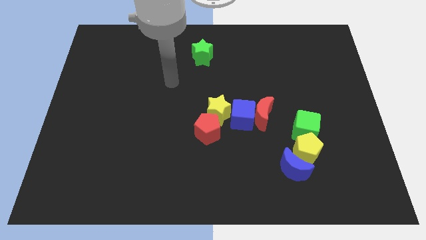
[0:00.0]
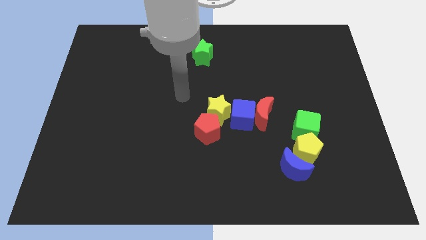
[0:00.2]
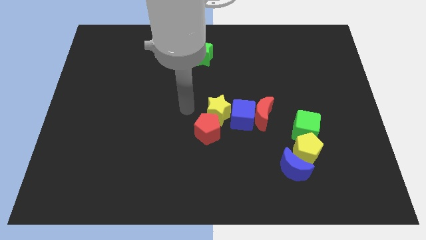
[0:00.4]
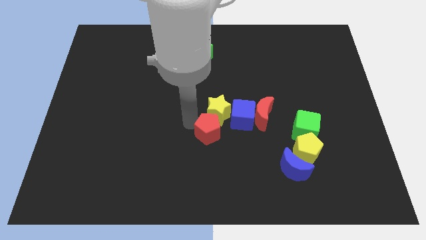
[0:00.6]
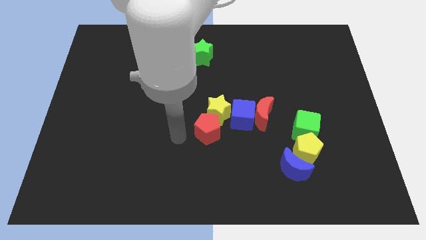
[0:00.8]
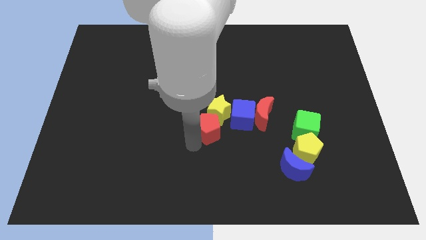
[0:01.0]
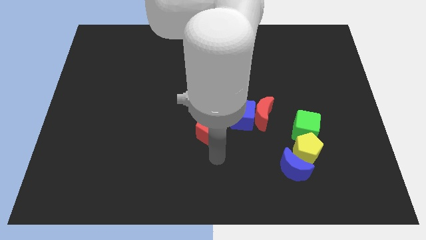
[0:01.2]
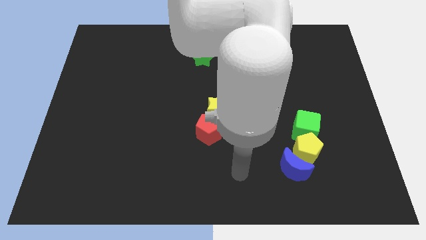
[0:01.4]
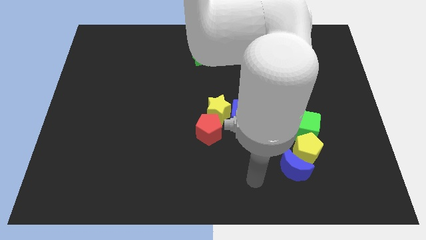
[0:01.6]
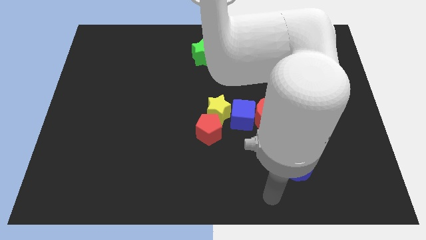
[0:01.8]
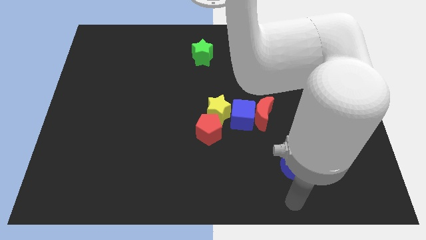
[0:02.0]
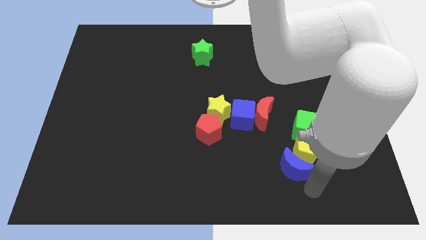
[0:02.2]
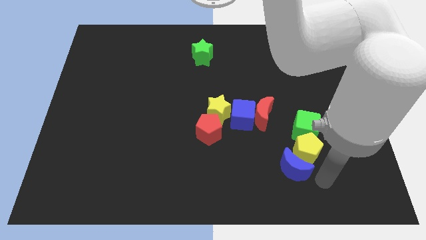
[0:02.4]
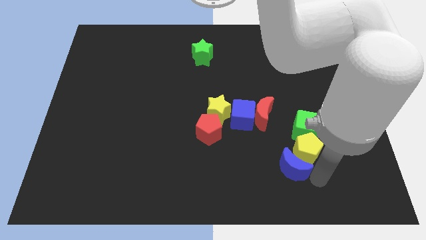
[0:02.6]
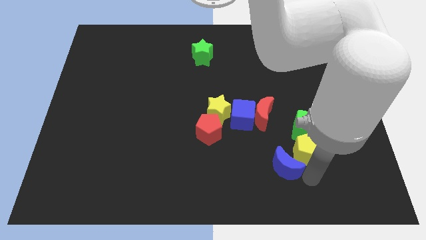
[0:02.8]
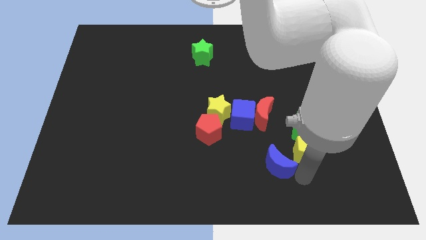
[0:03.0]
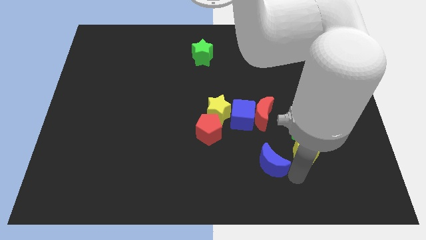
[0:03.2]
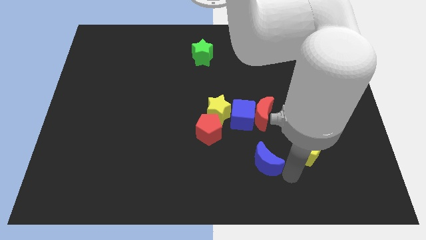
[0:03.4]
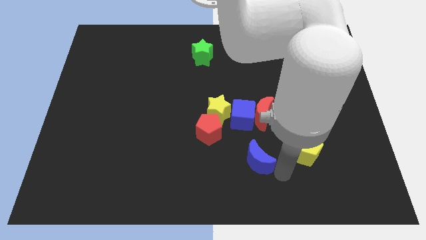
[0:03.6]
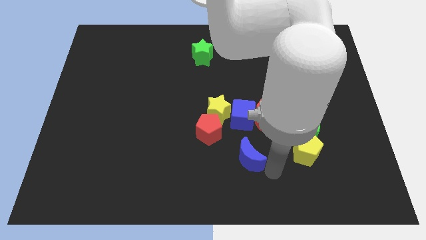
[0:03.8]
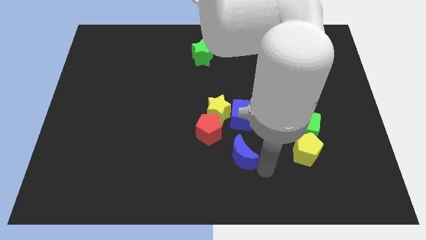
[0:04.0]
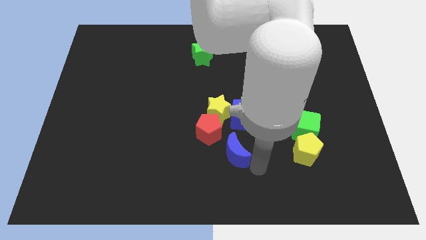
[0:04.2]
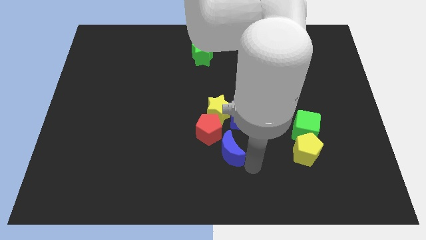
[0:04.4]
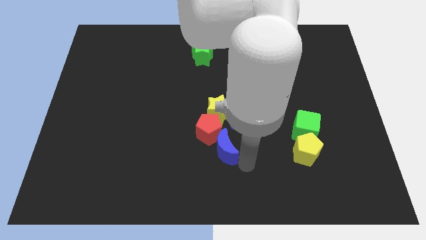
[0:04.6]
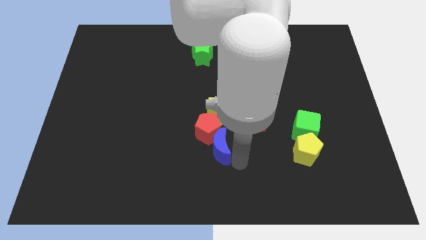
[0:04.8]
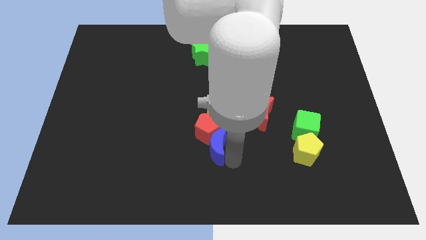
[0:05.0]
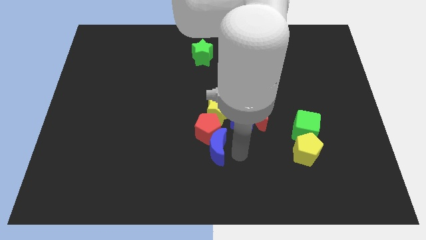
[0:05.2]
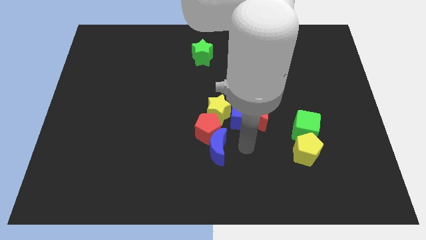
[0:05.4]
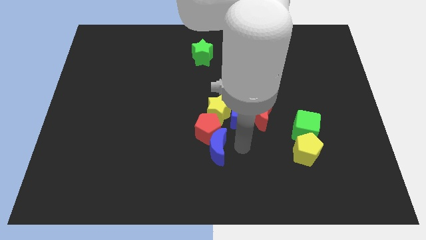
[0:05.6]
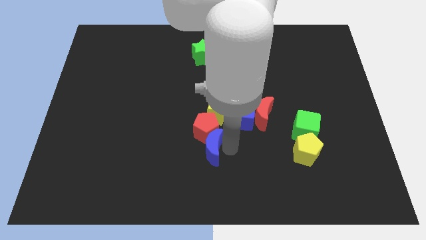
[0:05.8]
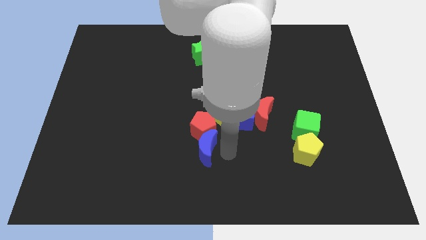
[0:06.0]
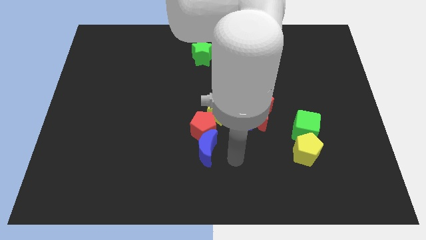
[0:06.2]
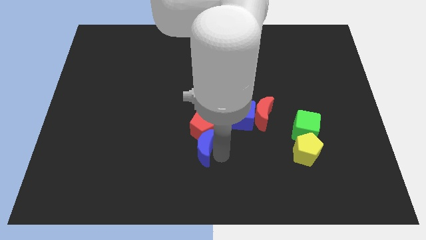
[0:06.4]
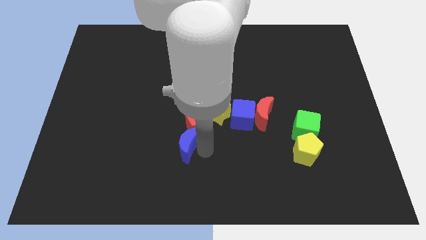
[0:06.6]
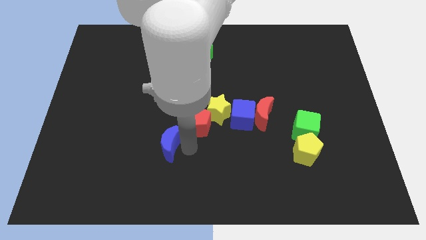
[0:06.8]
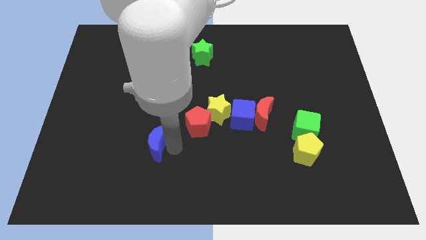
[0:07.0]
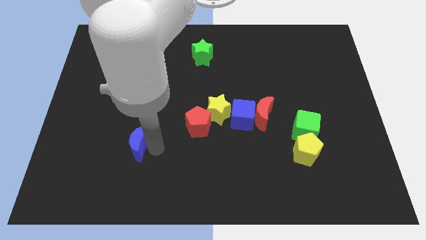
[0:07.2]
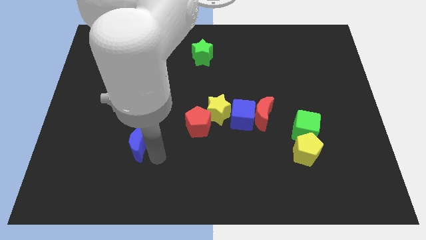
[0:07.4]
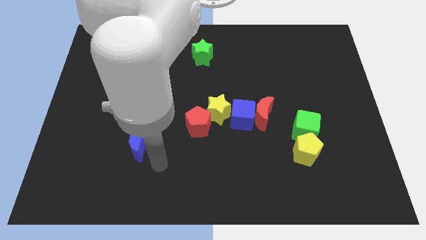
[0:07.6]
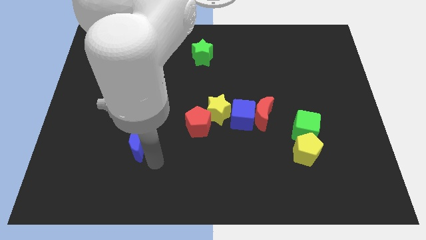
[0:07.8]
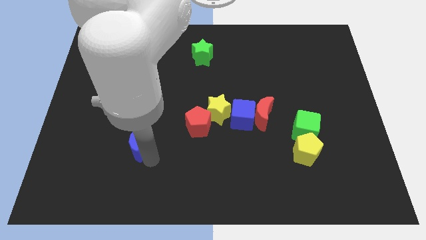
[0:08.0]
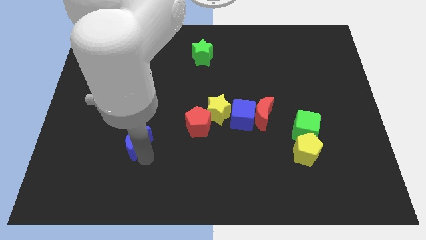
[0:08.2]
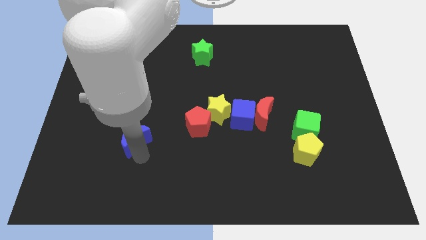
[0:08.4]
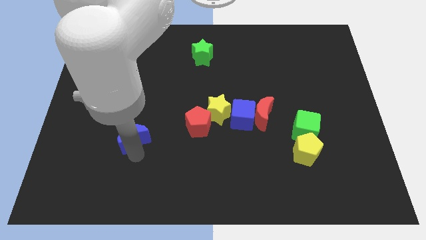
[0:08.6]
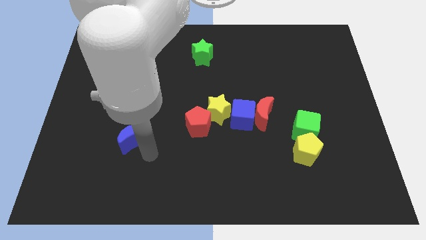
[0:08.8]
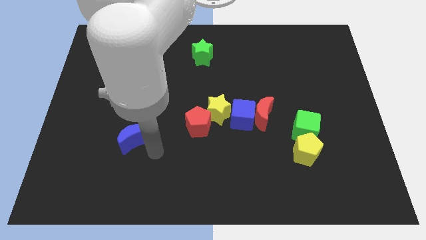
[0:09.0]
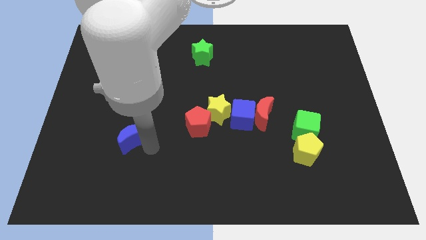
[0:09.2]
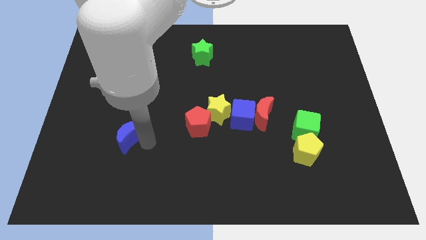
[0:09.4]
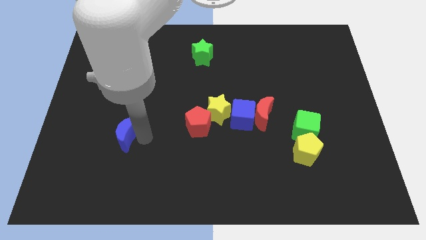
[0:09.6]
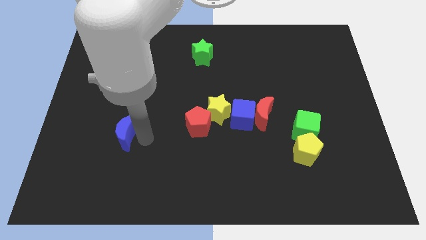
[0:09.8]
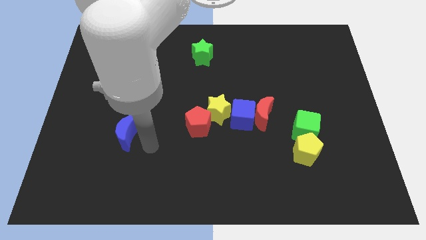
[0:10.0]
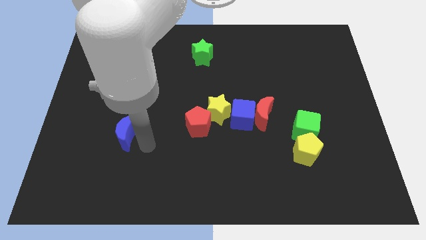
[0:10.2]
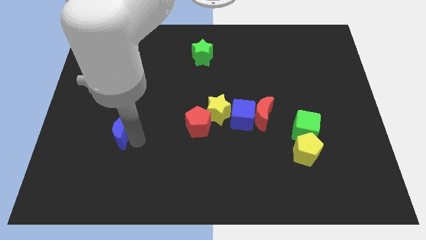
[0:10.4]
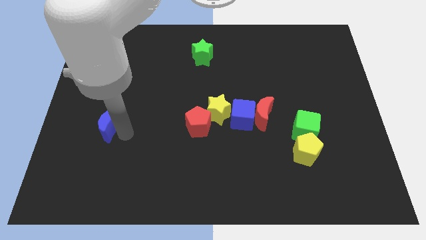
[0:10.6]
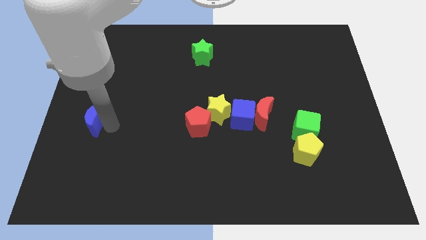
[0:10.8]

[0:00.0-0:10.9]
slide the blue moon to the left side of the board
